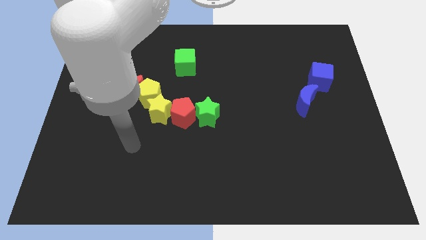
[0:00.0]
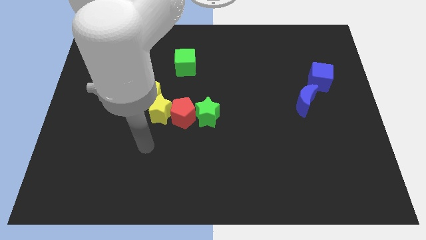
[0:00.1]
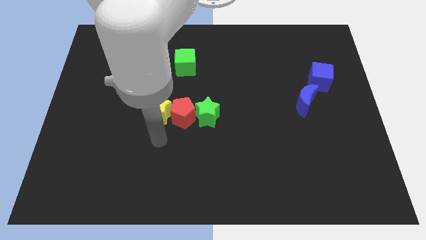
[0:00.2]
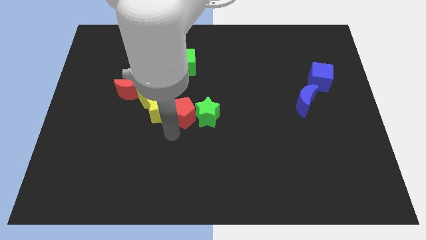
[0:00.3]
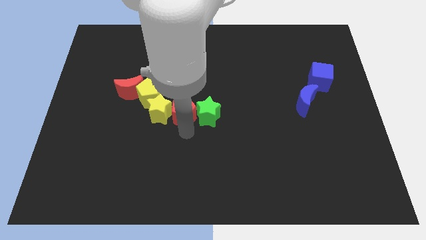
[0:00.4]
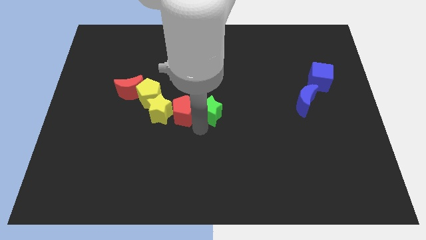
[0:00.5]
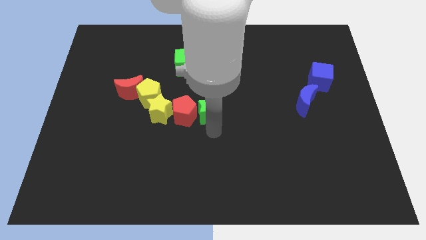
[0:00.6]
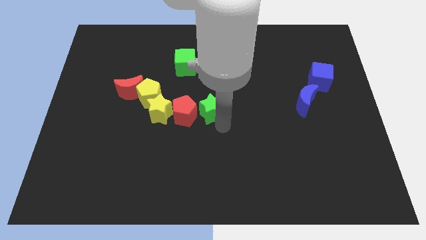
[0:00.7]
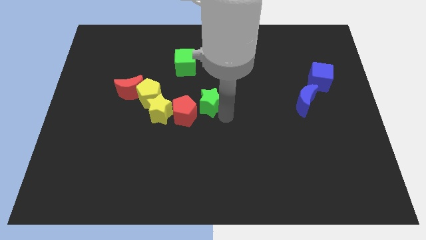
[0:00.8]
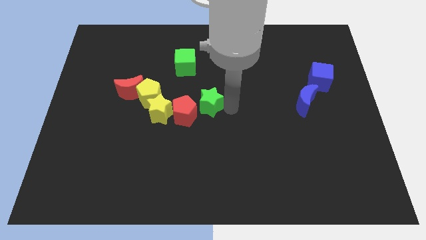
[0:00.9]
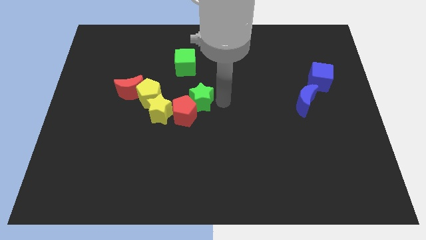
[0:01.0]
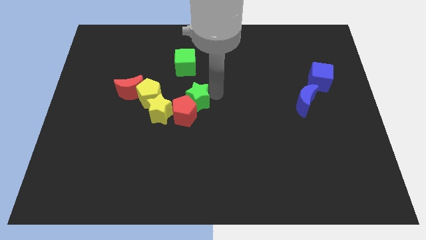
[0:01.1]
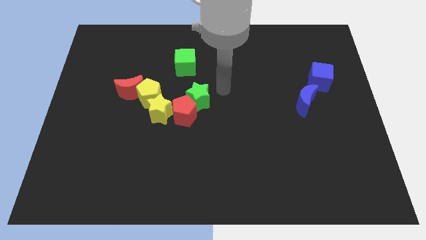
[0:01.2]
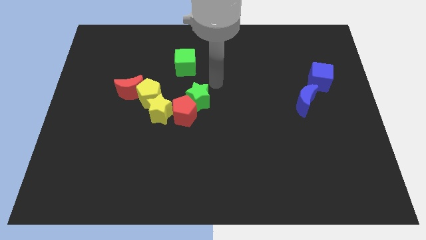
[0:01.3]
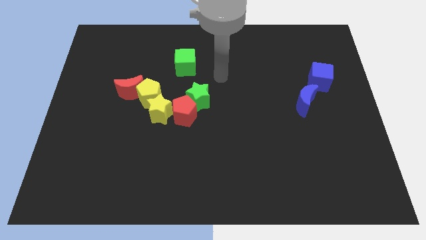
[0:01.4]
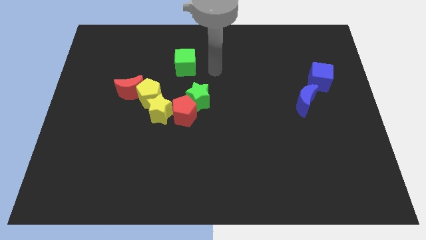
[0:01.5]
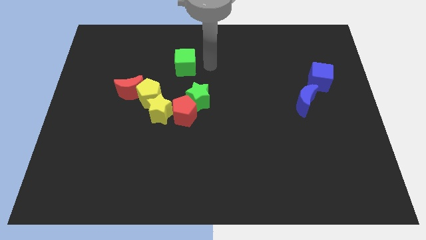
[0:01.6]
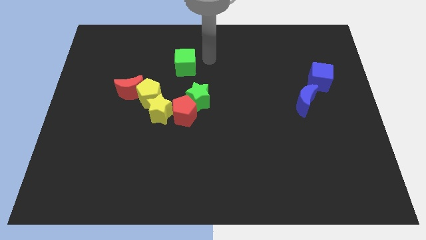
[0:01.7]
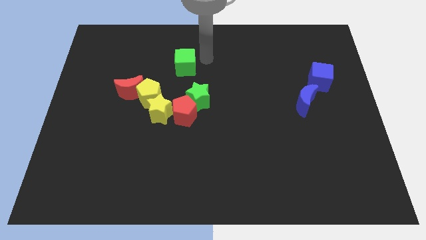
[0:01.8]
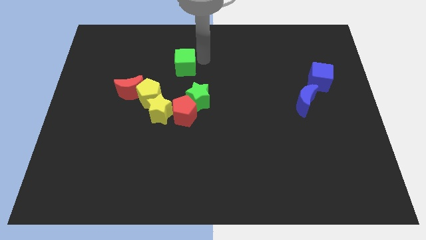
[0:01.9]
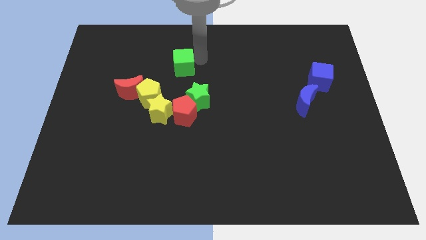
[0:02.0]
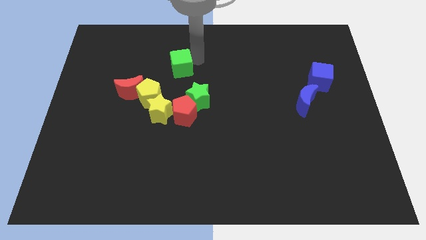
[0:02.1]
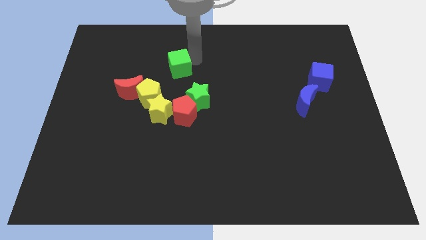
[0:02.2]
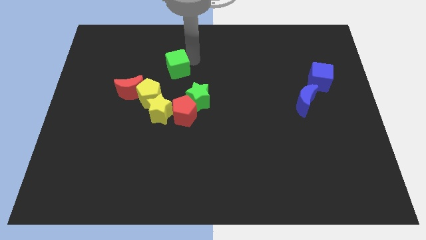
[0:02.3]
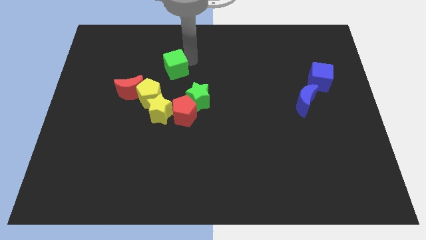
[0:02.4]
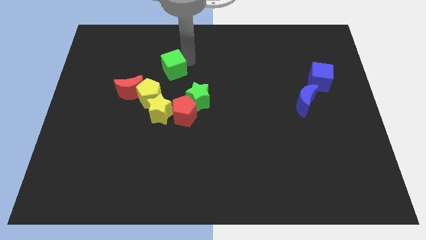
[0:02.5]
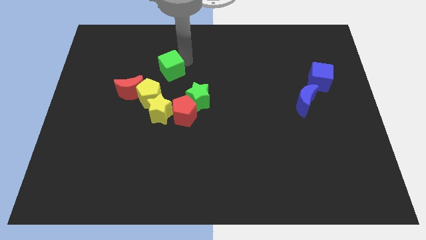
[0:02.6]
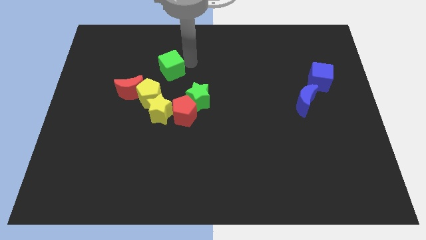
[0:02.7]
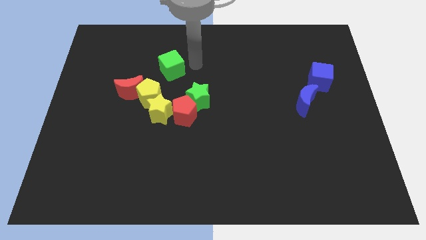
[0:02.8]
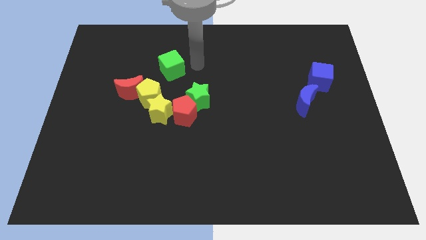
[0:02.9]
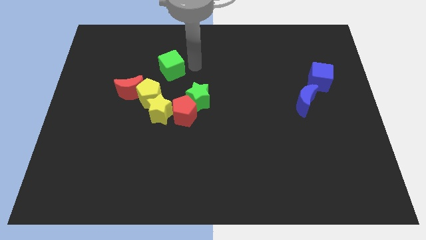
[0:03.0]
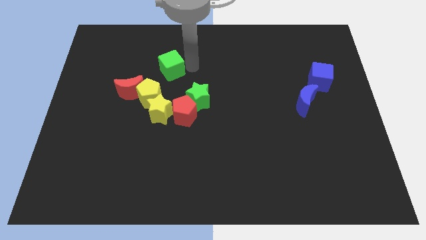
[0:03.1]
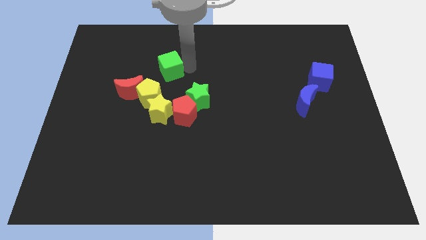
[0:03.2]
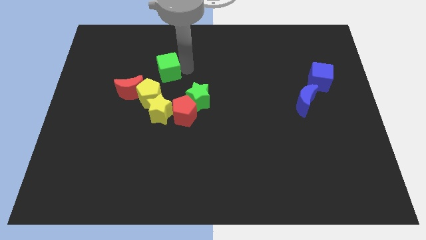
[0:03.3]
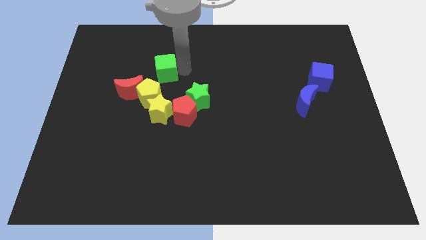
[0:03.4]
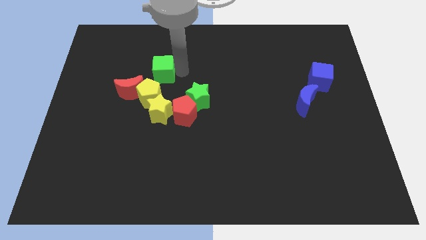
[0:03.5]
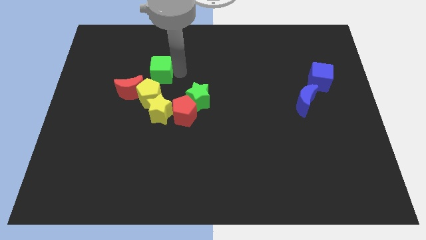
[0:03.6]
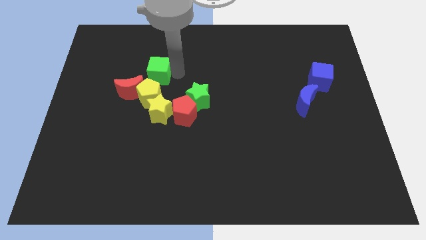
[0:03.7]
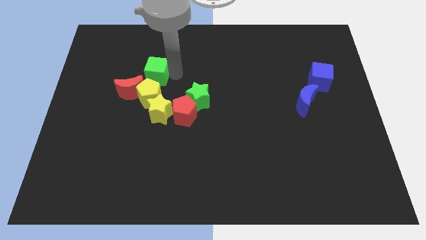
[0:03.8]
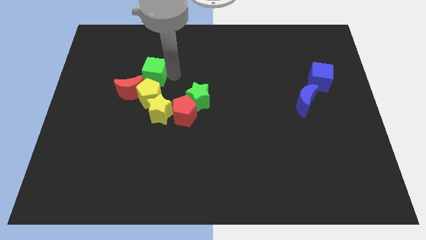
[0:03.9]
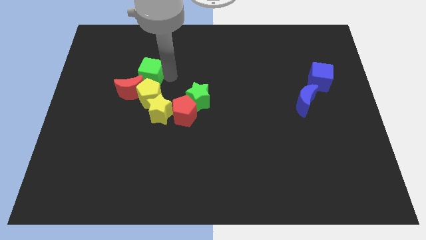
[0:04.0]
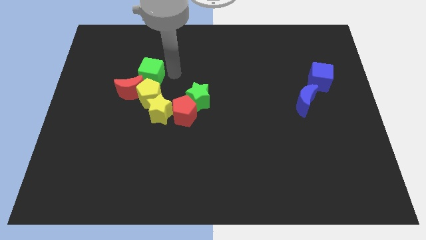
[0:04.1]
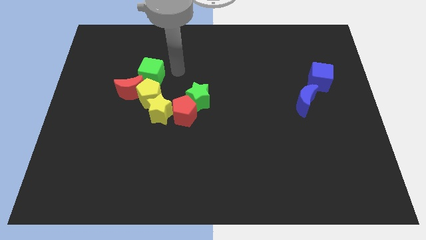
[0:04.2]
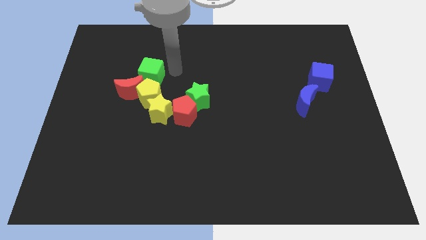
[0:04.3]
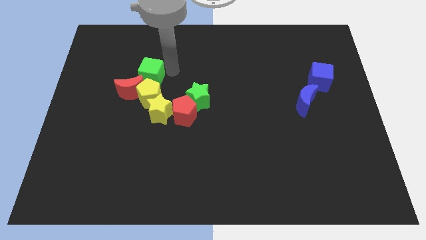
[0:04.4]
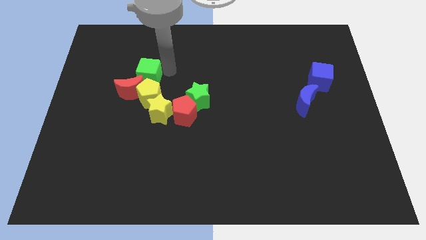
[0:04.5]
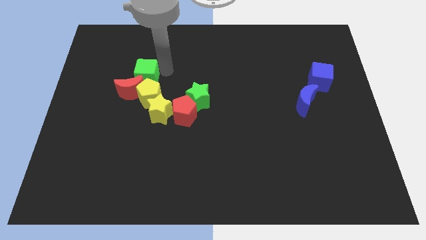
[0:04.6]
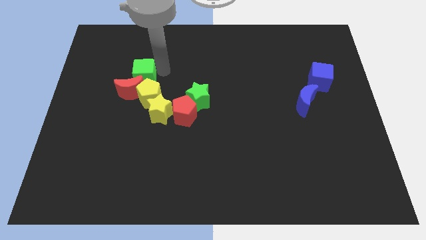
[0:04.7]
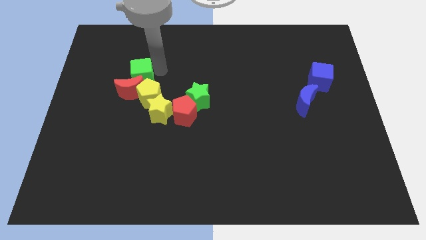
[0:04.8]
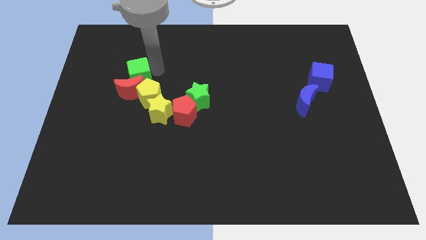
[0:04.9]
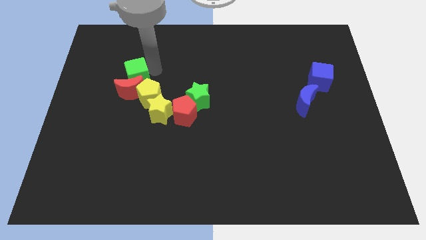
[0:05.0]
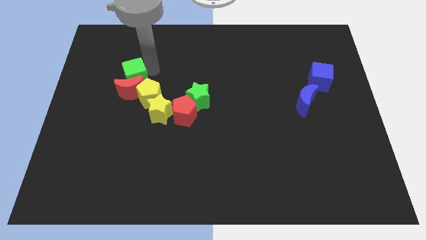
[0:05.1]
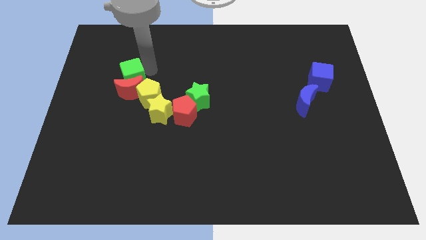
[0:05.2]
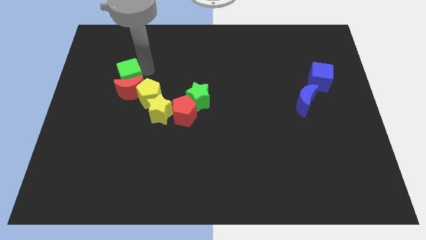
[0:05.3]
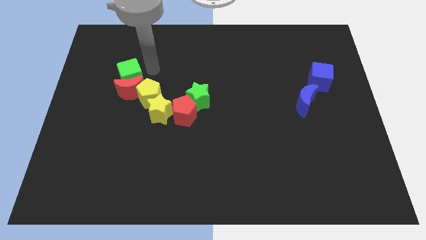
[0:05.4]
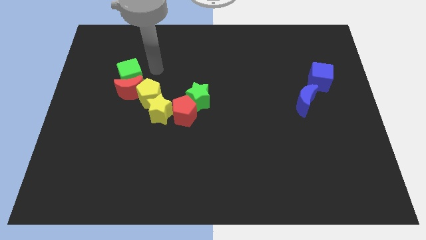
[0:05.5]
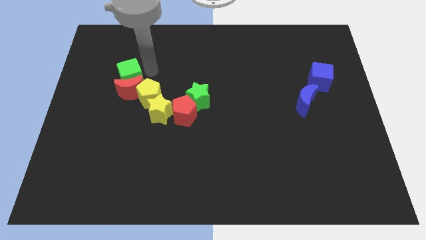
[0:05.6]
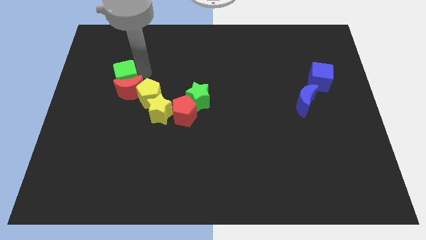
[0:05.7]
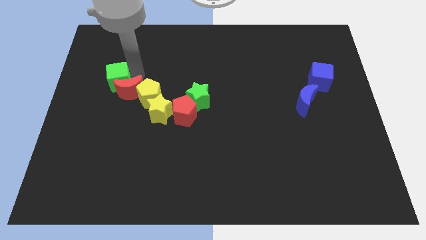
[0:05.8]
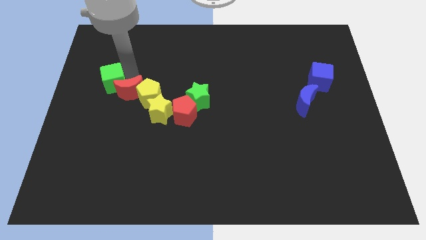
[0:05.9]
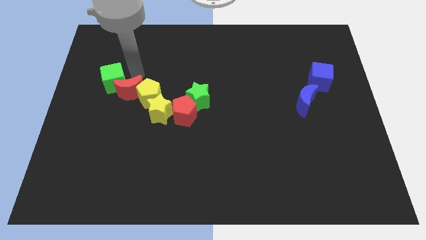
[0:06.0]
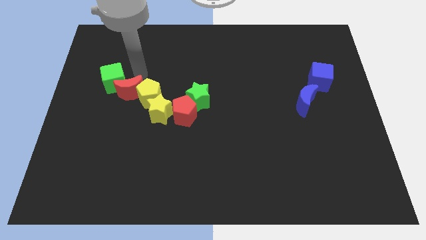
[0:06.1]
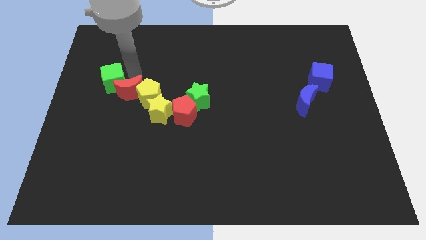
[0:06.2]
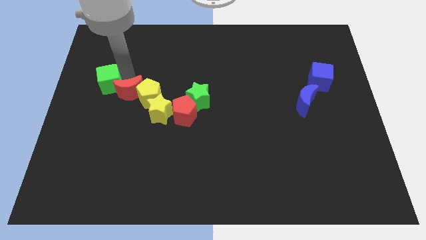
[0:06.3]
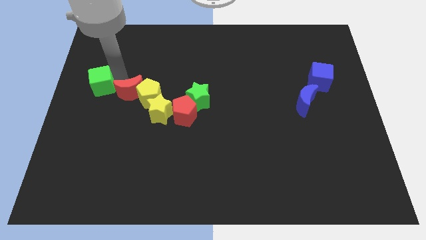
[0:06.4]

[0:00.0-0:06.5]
push the green cube to the center left
